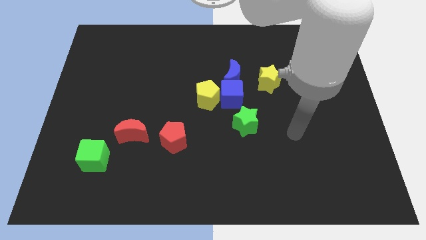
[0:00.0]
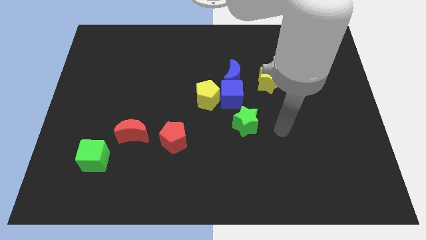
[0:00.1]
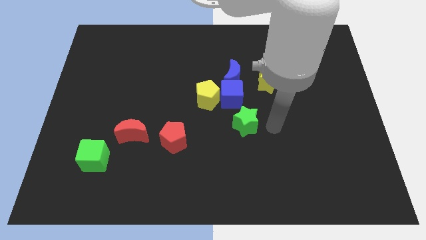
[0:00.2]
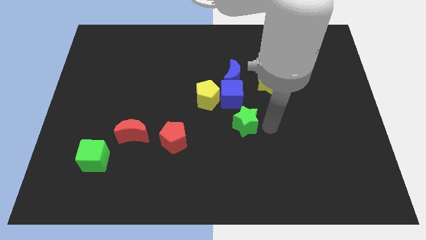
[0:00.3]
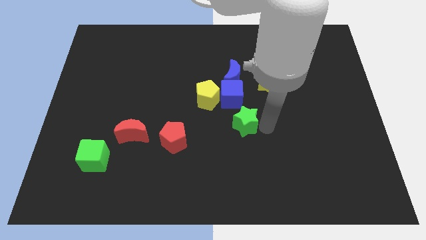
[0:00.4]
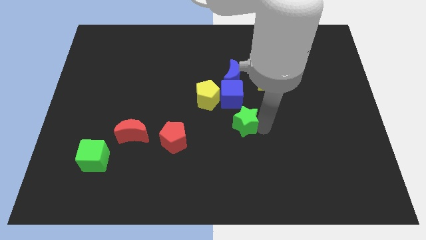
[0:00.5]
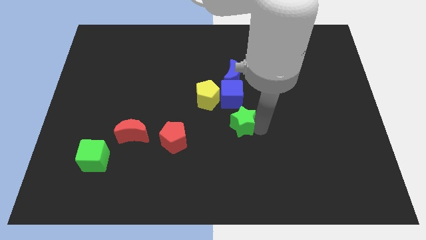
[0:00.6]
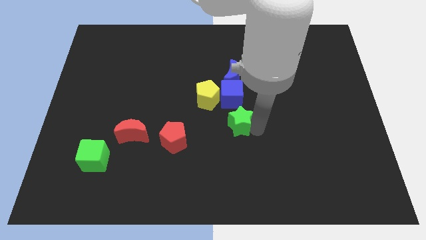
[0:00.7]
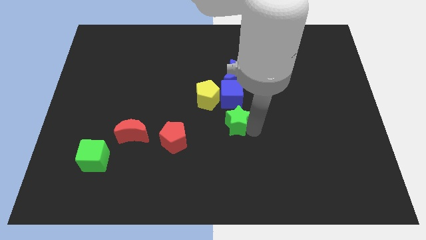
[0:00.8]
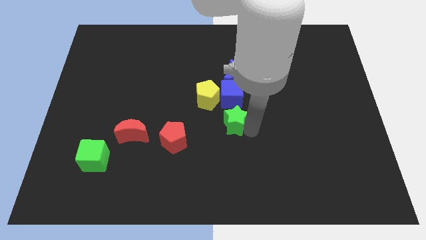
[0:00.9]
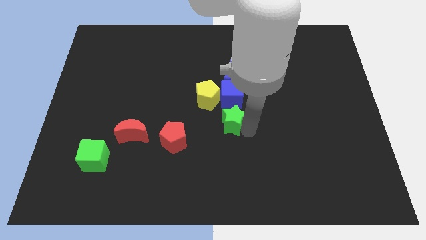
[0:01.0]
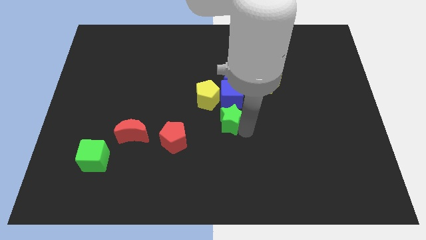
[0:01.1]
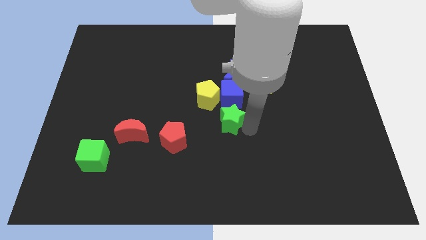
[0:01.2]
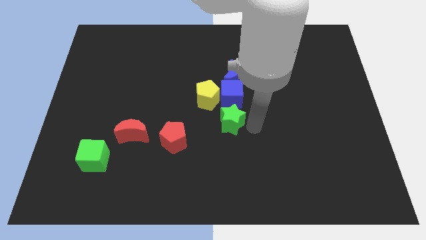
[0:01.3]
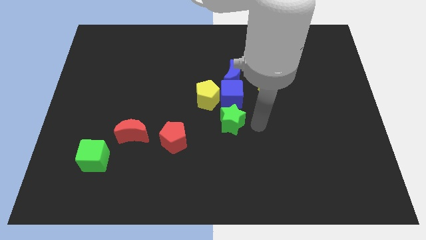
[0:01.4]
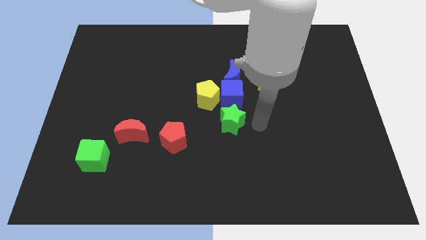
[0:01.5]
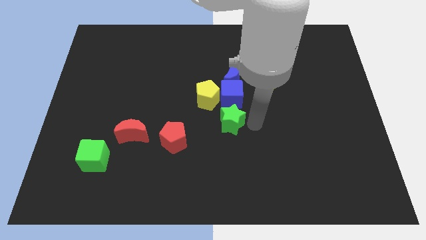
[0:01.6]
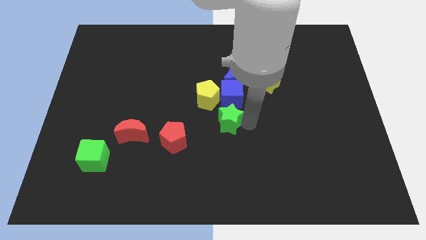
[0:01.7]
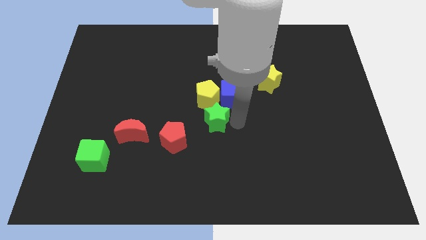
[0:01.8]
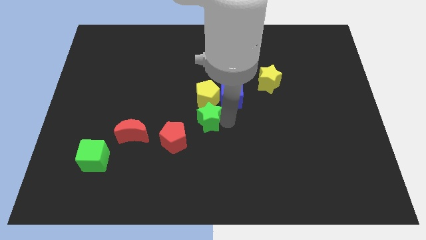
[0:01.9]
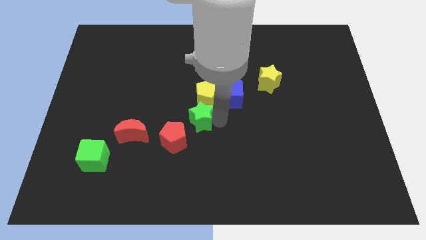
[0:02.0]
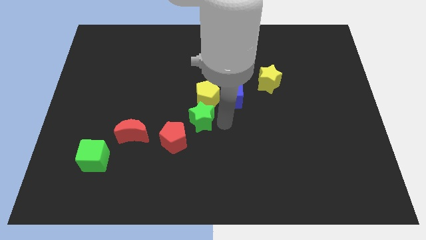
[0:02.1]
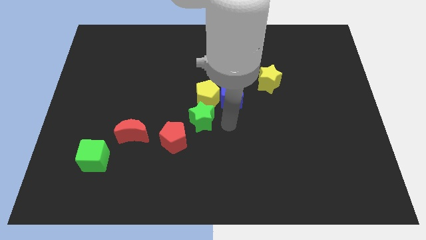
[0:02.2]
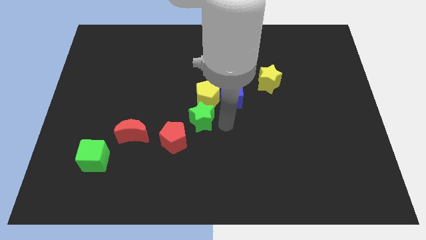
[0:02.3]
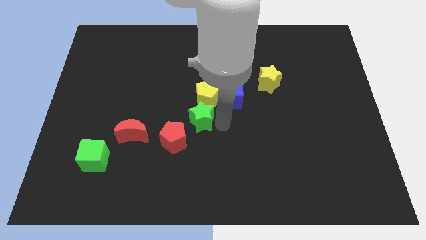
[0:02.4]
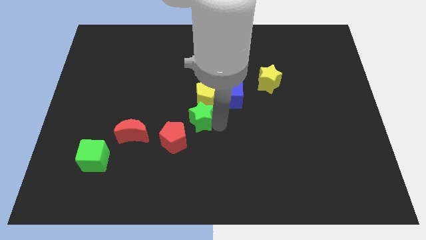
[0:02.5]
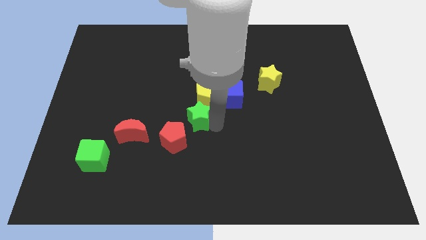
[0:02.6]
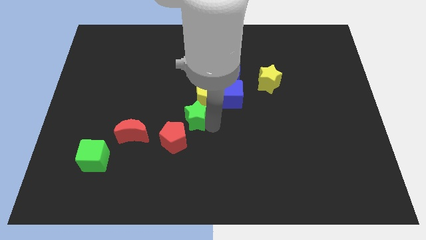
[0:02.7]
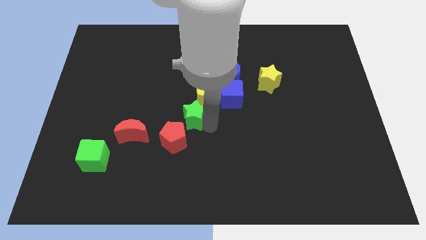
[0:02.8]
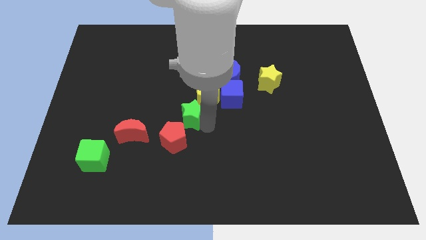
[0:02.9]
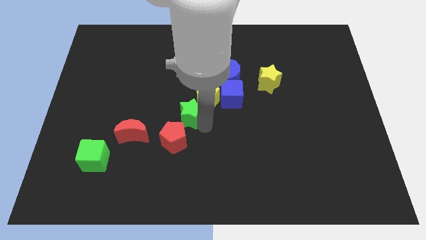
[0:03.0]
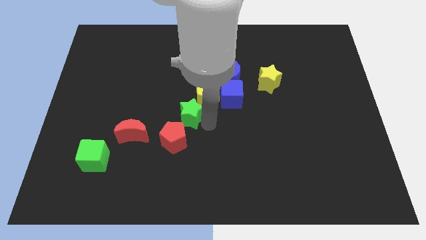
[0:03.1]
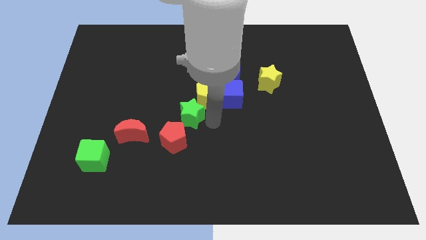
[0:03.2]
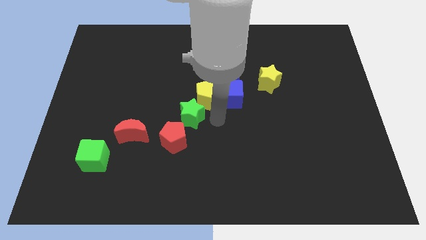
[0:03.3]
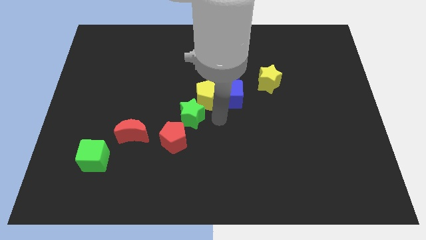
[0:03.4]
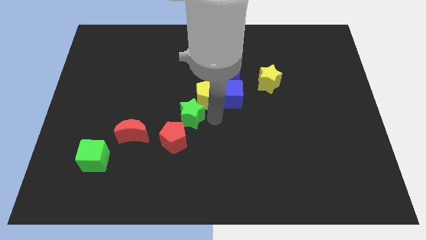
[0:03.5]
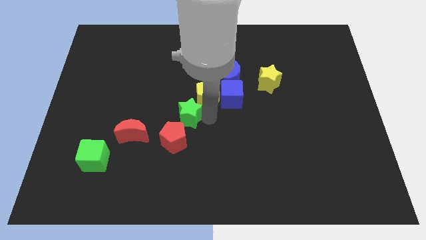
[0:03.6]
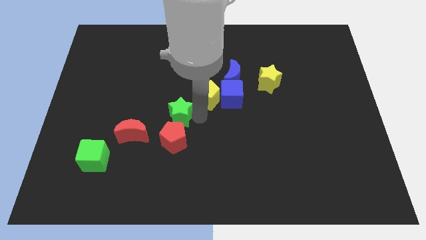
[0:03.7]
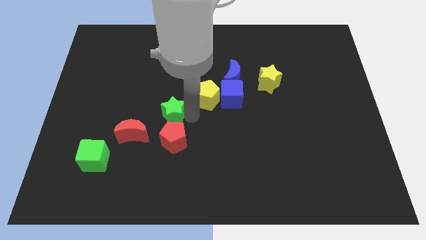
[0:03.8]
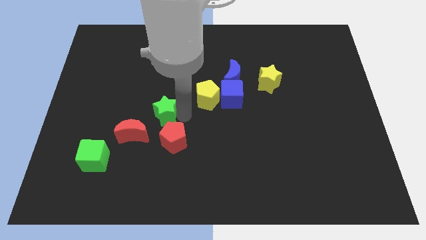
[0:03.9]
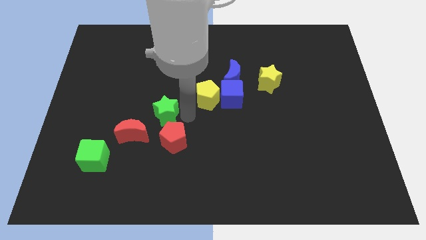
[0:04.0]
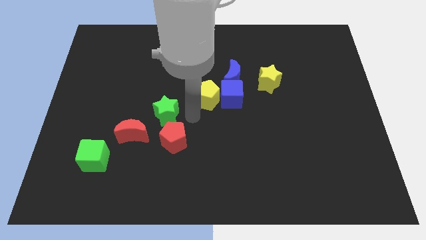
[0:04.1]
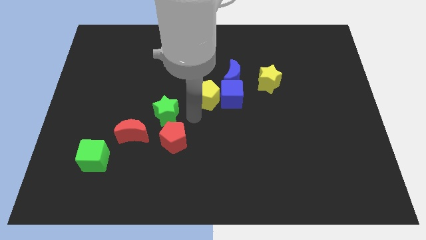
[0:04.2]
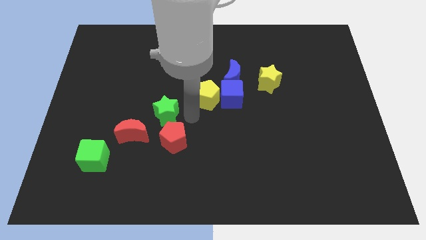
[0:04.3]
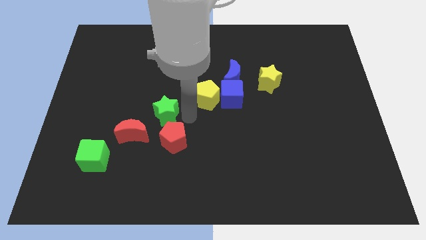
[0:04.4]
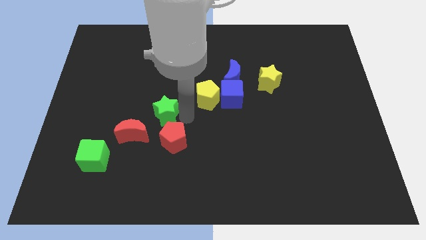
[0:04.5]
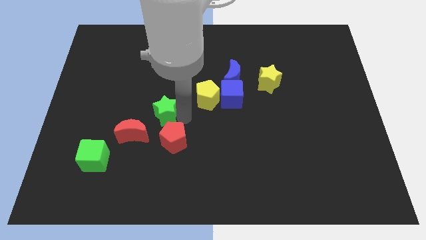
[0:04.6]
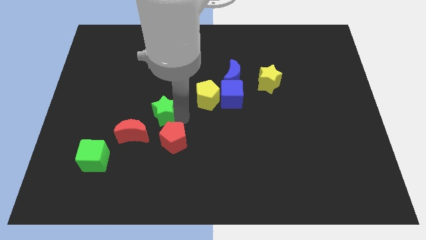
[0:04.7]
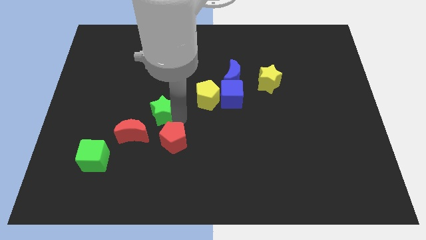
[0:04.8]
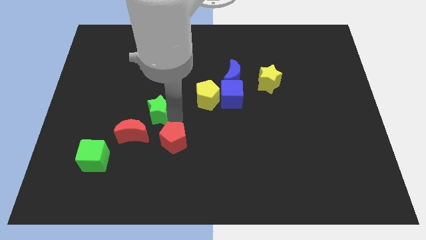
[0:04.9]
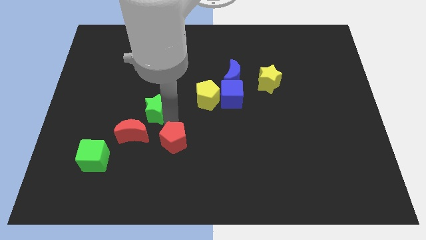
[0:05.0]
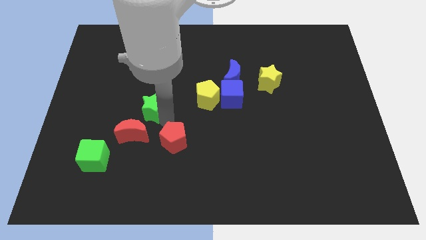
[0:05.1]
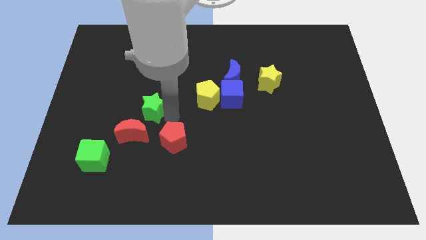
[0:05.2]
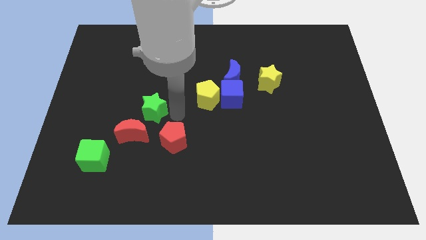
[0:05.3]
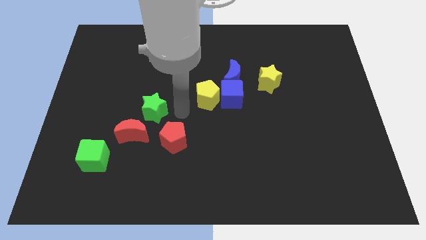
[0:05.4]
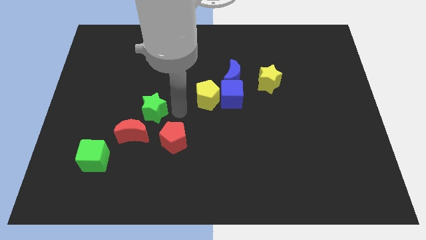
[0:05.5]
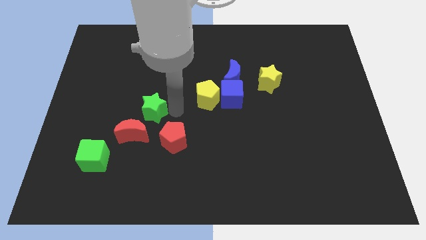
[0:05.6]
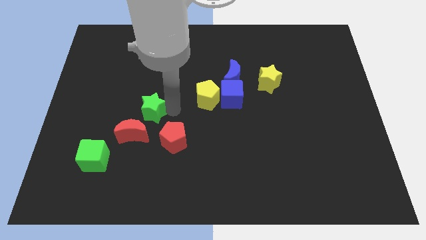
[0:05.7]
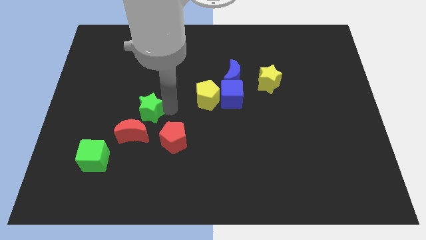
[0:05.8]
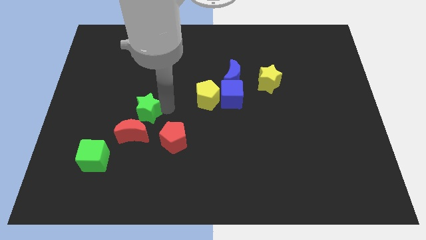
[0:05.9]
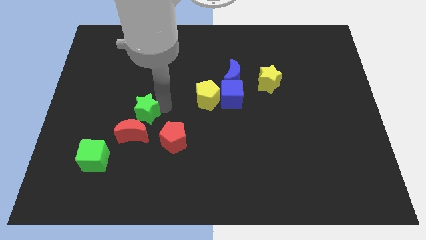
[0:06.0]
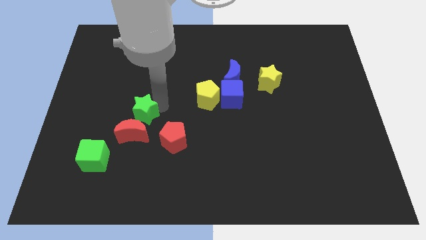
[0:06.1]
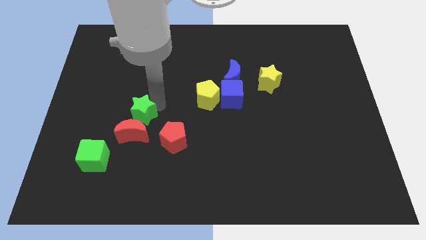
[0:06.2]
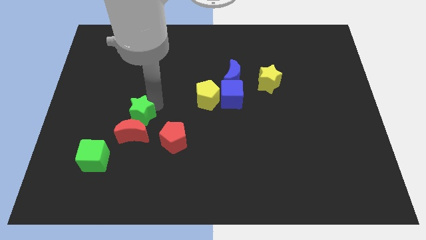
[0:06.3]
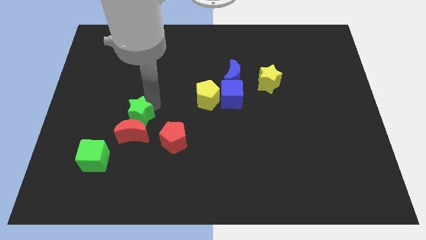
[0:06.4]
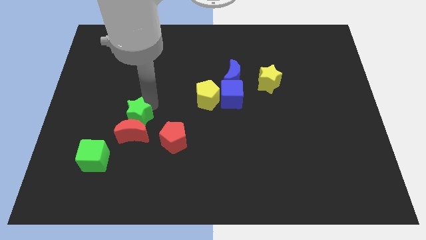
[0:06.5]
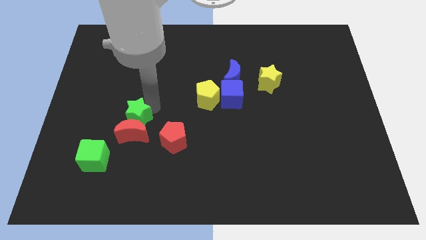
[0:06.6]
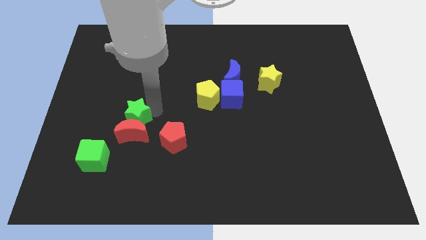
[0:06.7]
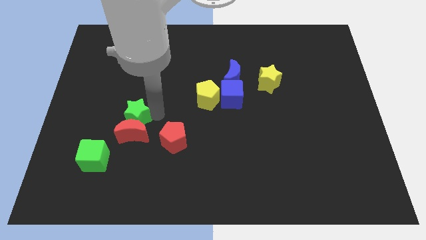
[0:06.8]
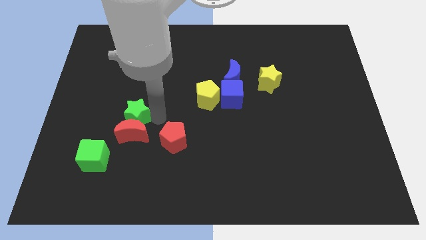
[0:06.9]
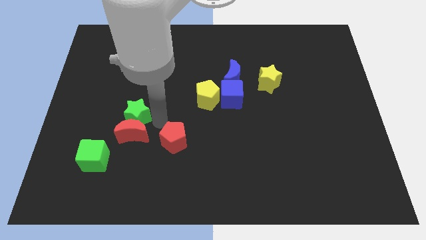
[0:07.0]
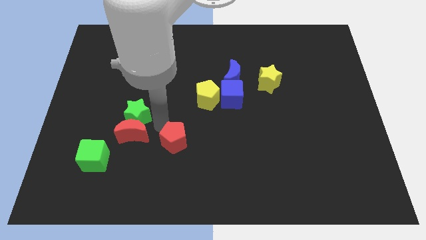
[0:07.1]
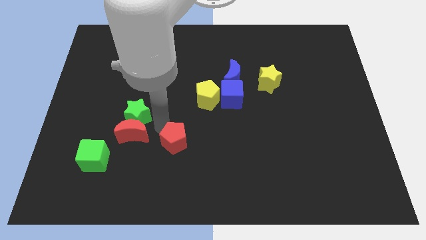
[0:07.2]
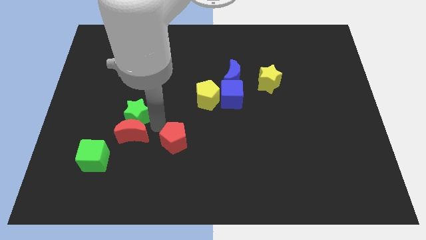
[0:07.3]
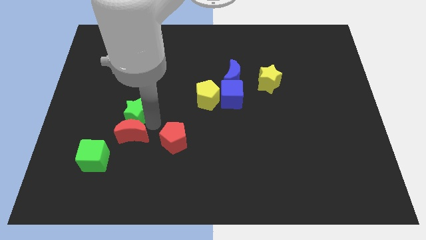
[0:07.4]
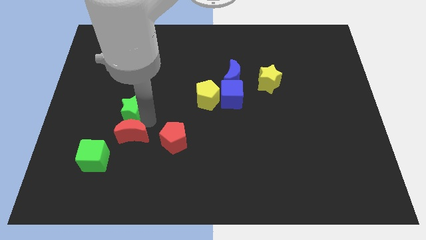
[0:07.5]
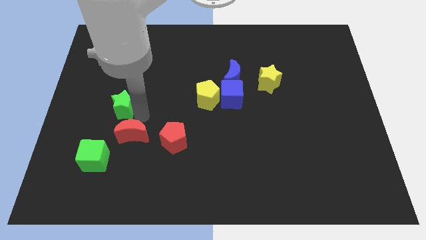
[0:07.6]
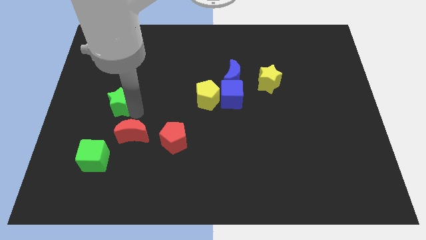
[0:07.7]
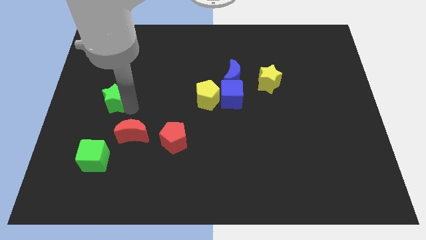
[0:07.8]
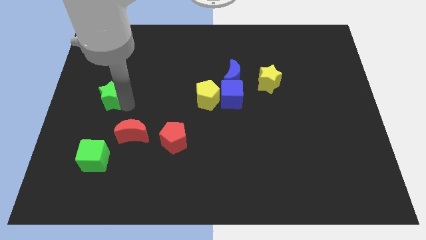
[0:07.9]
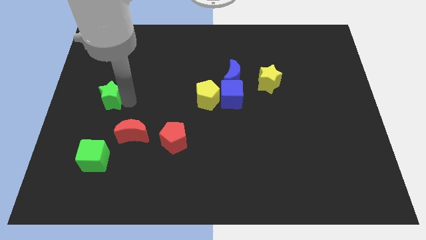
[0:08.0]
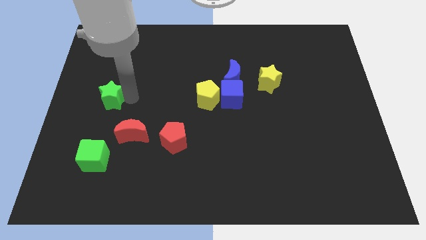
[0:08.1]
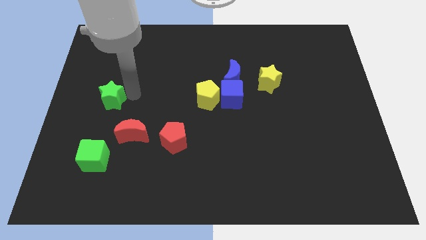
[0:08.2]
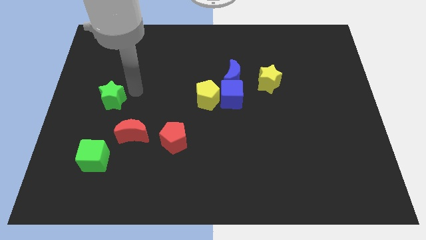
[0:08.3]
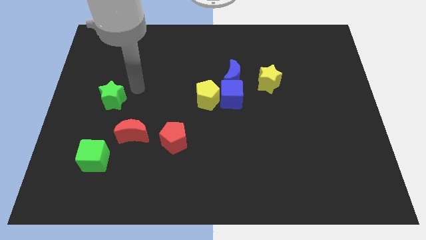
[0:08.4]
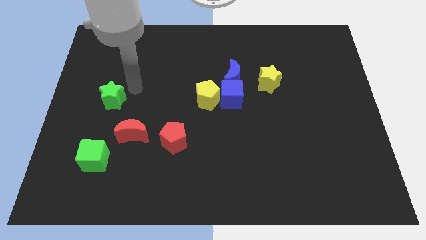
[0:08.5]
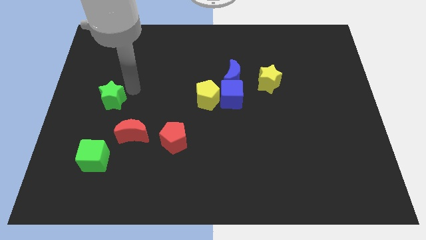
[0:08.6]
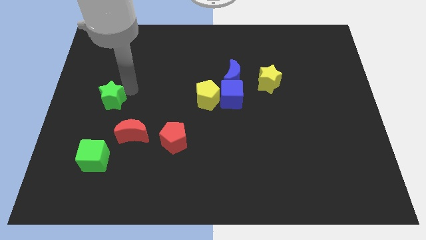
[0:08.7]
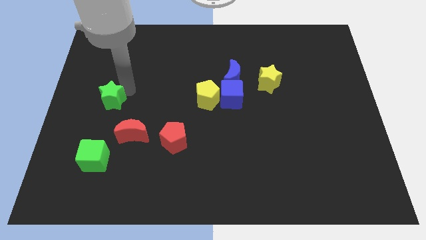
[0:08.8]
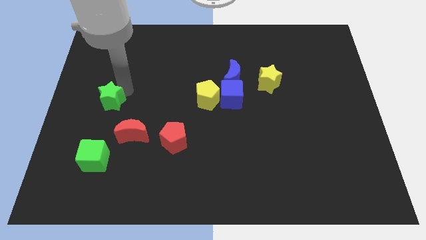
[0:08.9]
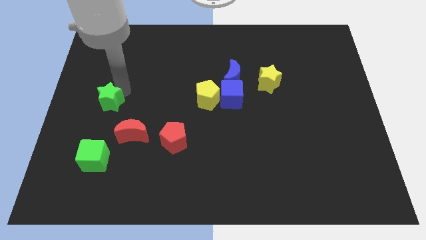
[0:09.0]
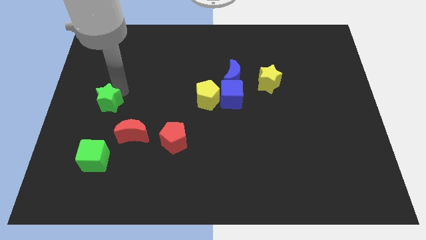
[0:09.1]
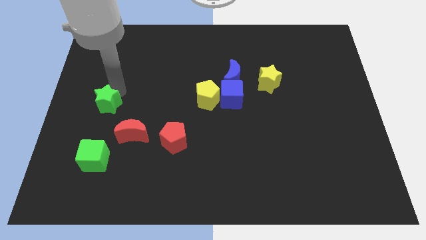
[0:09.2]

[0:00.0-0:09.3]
push the green star to the left side
